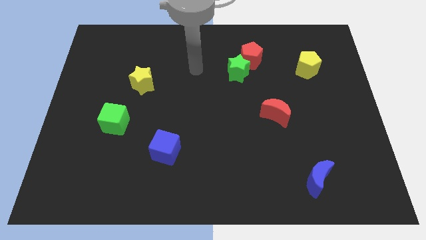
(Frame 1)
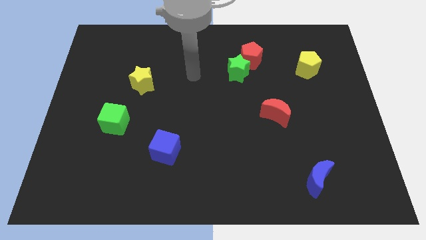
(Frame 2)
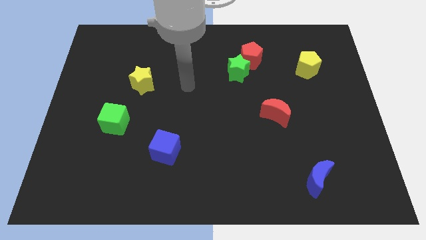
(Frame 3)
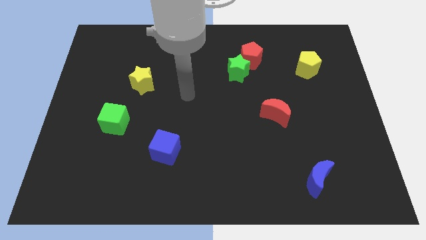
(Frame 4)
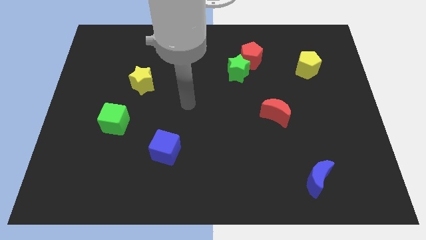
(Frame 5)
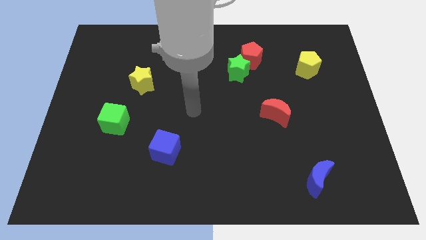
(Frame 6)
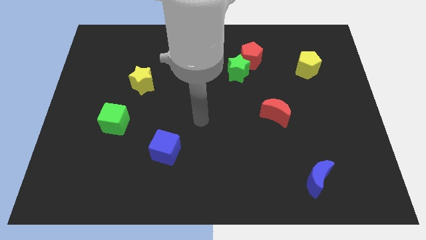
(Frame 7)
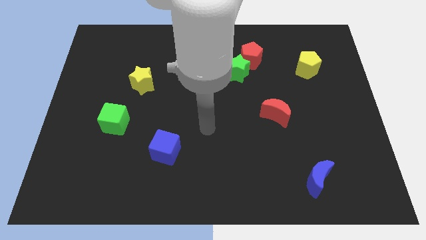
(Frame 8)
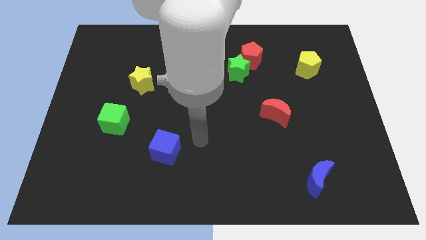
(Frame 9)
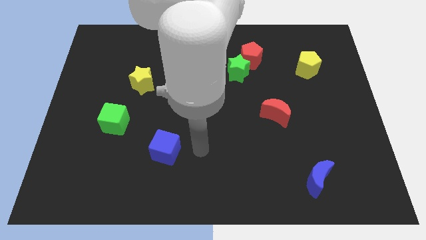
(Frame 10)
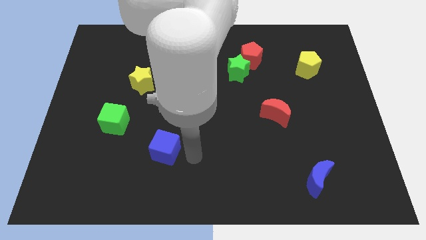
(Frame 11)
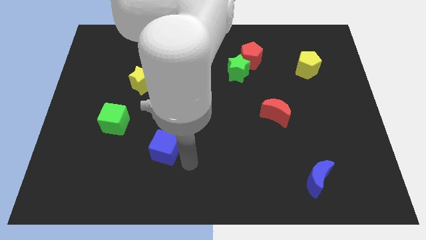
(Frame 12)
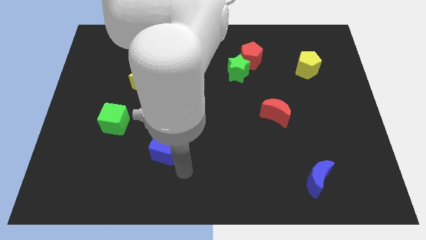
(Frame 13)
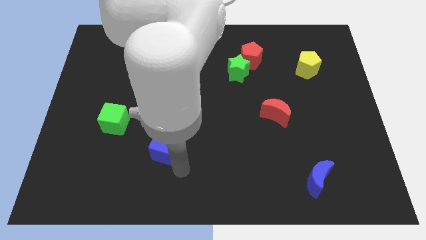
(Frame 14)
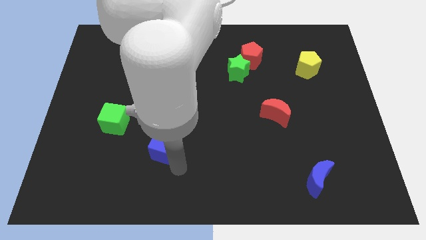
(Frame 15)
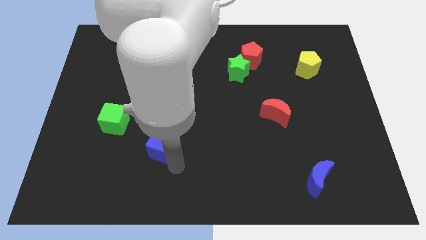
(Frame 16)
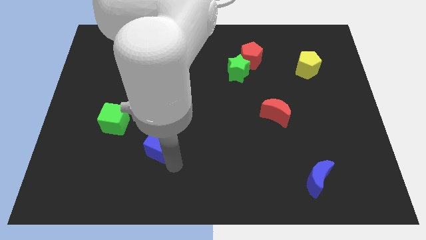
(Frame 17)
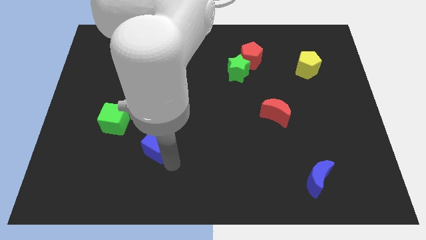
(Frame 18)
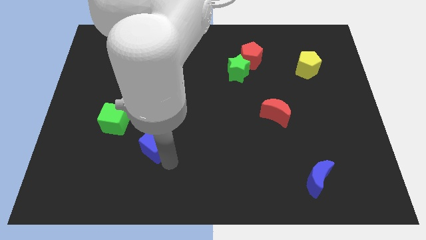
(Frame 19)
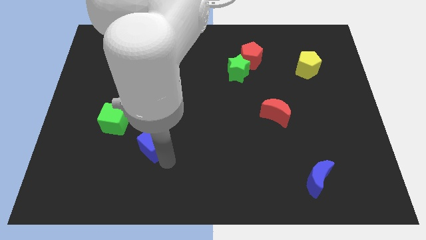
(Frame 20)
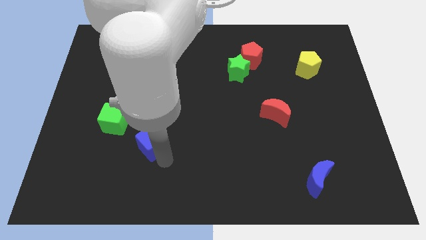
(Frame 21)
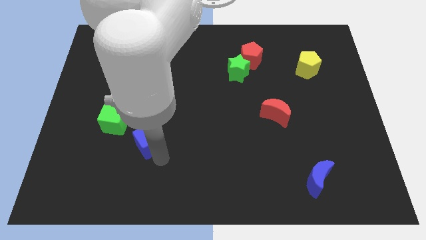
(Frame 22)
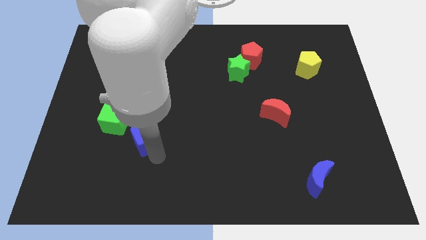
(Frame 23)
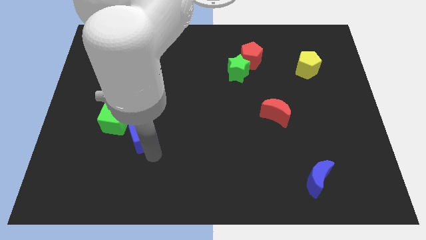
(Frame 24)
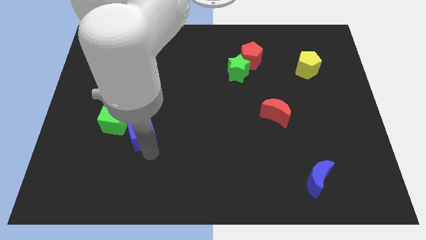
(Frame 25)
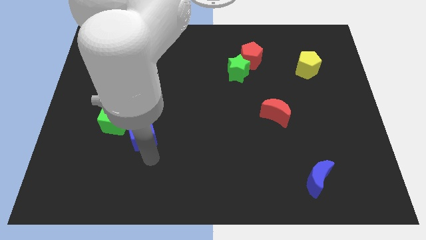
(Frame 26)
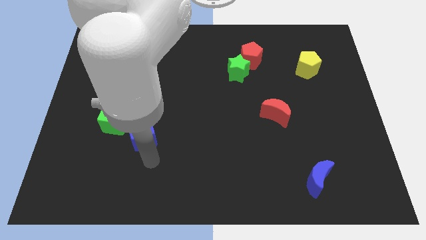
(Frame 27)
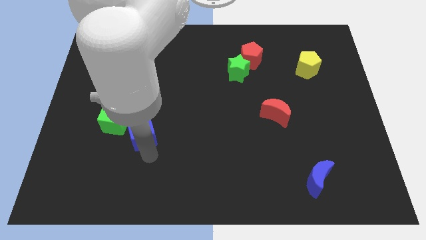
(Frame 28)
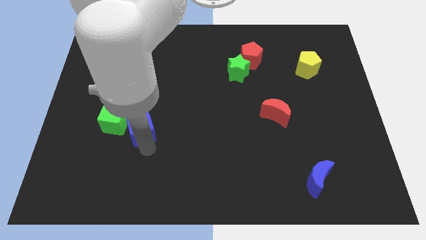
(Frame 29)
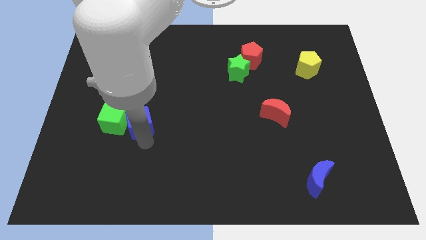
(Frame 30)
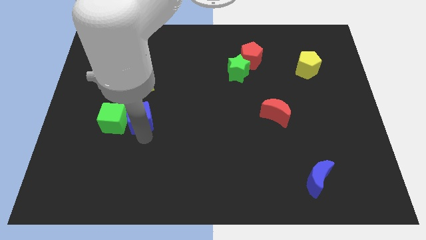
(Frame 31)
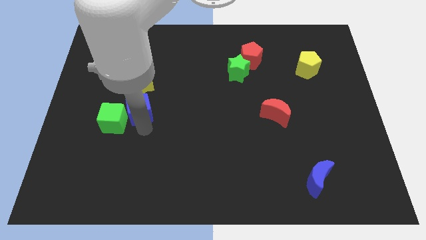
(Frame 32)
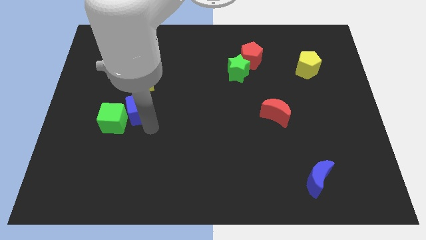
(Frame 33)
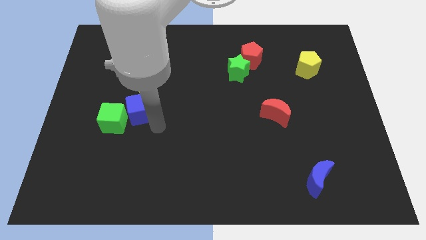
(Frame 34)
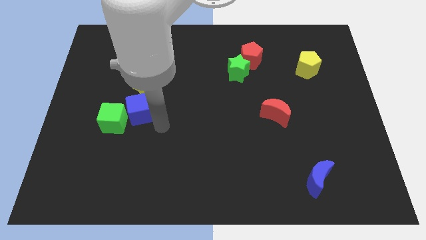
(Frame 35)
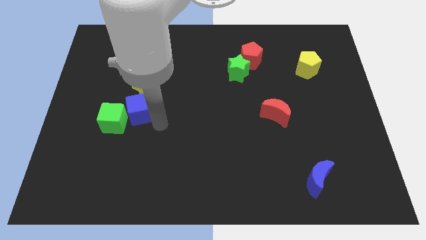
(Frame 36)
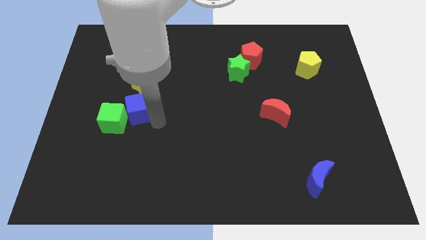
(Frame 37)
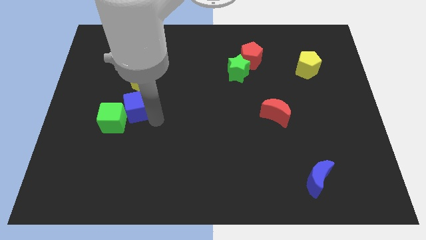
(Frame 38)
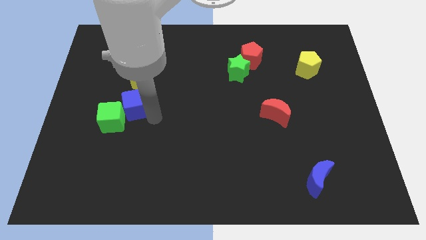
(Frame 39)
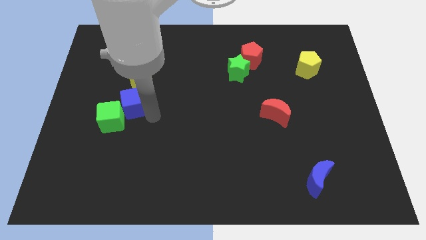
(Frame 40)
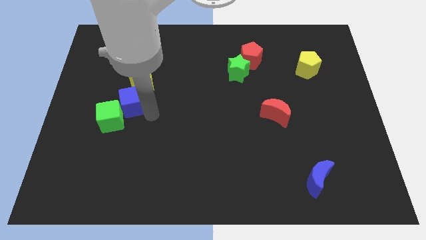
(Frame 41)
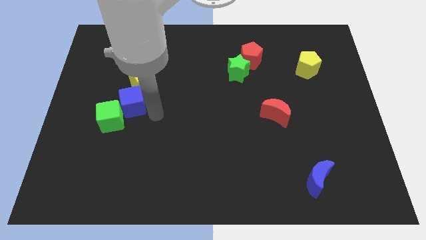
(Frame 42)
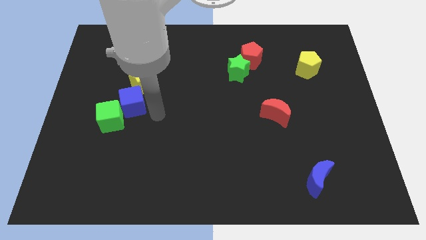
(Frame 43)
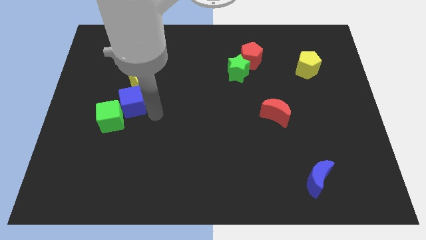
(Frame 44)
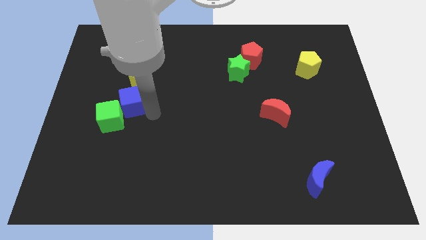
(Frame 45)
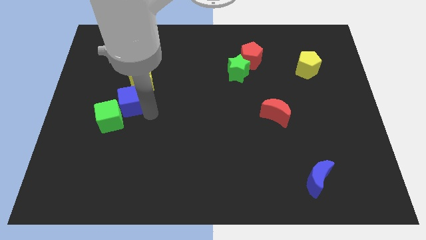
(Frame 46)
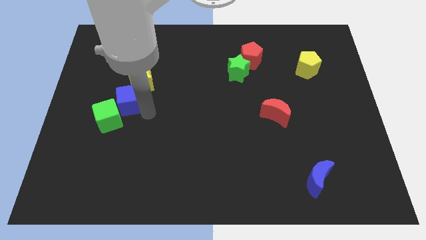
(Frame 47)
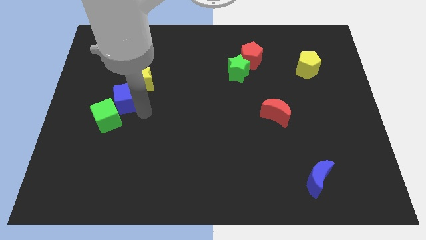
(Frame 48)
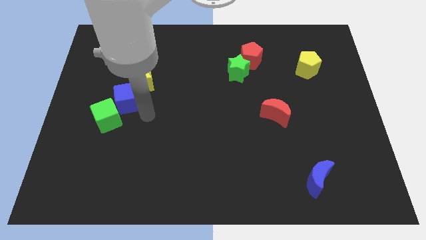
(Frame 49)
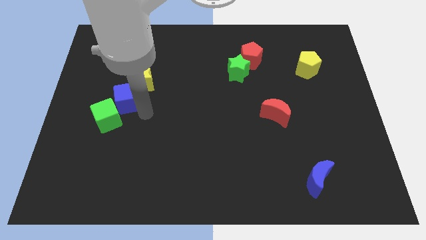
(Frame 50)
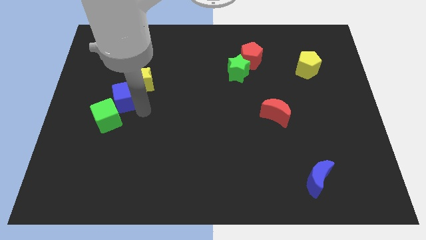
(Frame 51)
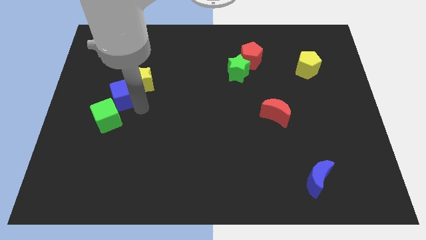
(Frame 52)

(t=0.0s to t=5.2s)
put the blue cube left of the yellow star

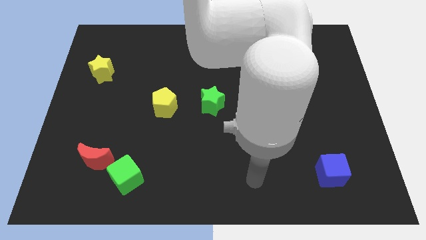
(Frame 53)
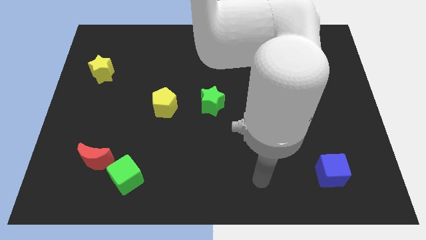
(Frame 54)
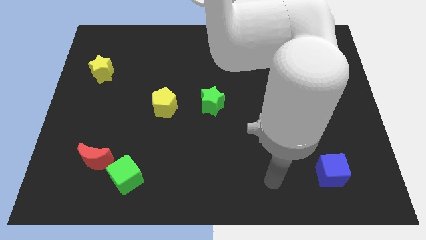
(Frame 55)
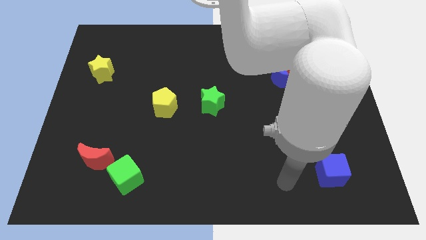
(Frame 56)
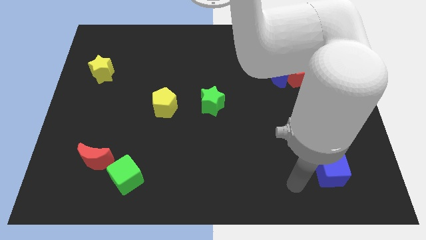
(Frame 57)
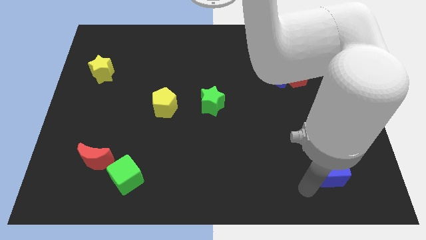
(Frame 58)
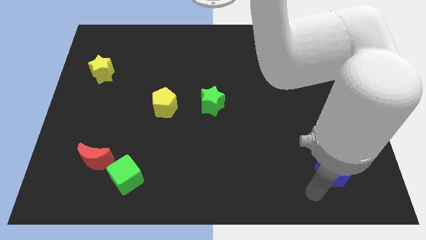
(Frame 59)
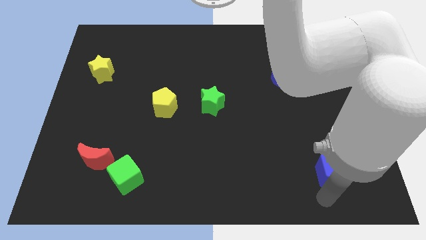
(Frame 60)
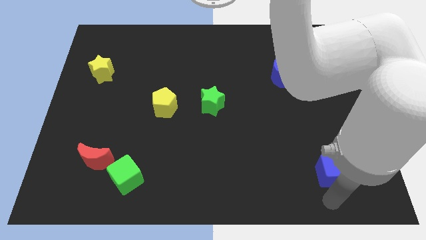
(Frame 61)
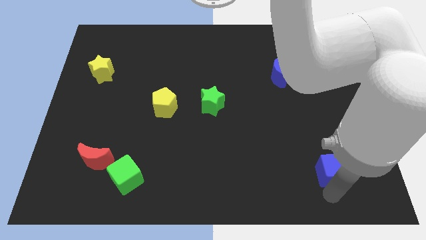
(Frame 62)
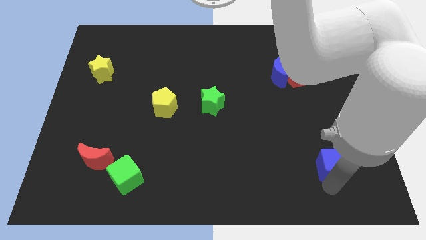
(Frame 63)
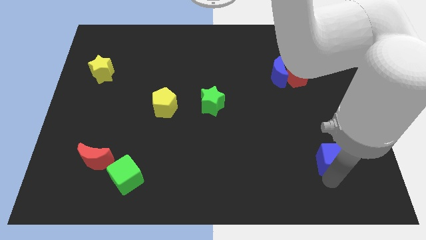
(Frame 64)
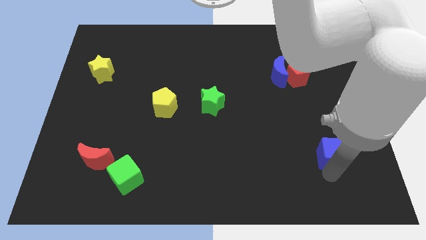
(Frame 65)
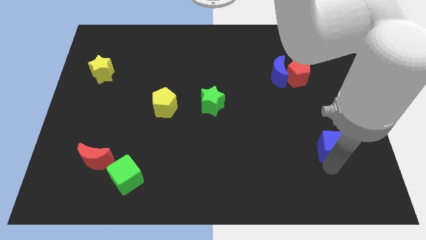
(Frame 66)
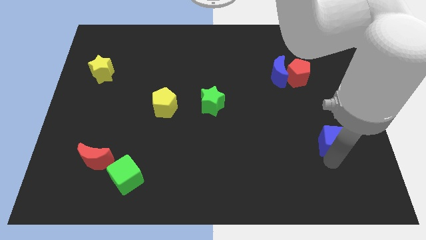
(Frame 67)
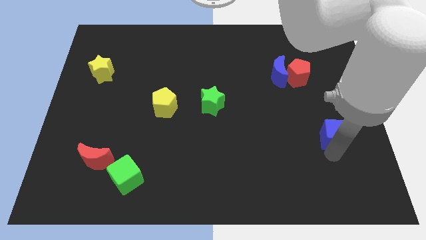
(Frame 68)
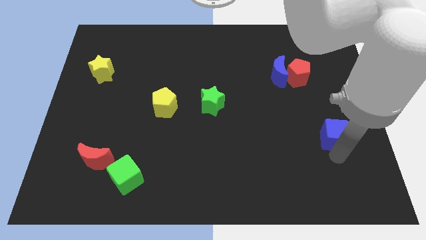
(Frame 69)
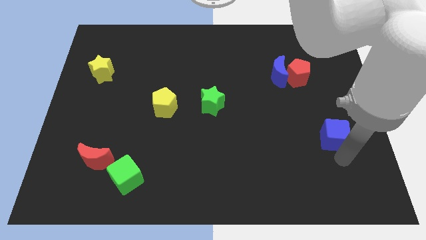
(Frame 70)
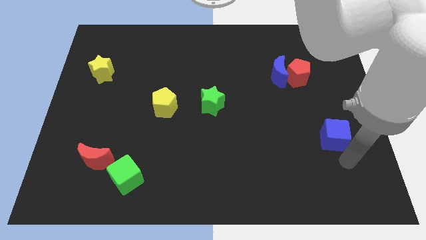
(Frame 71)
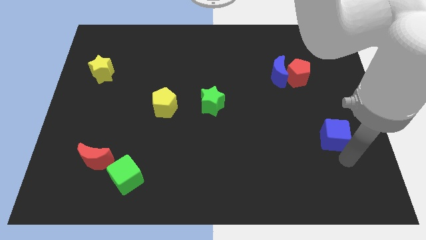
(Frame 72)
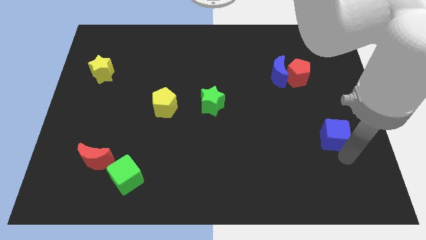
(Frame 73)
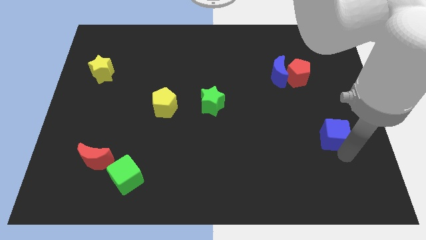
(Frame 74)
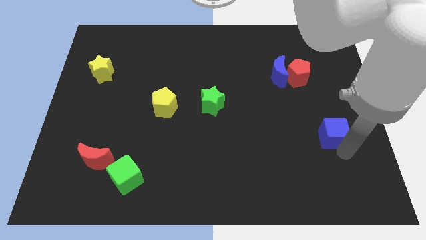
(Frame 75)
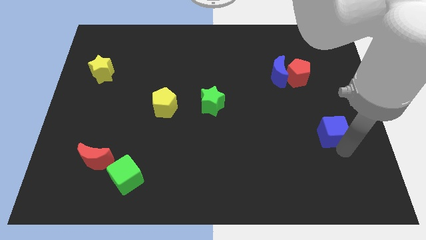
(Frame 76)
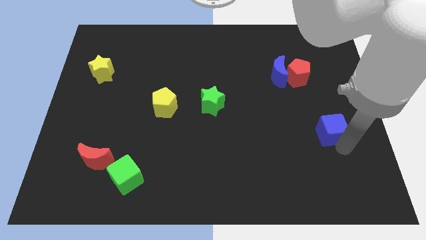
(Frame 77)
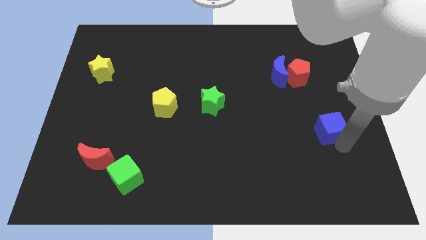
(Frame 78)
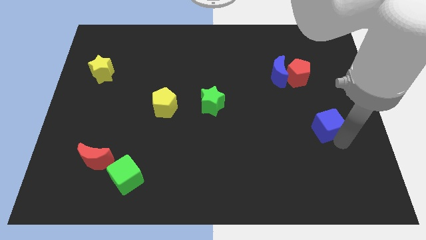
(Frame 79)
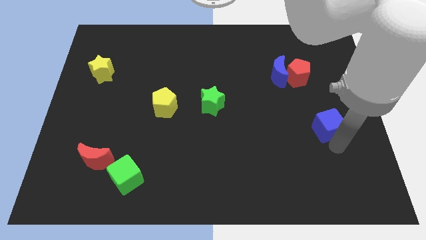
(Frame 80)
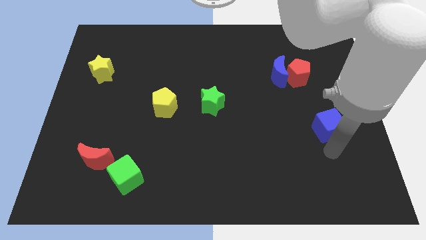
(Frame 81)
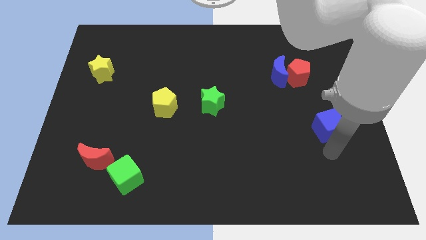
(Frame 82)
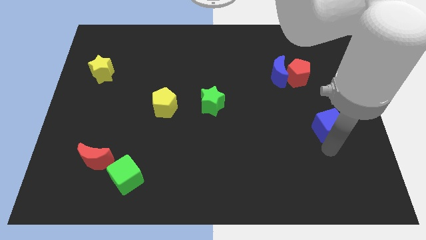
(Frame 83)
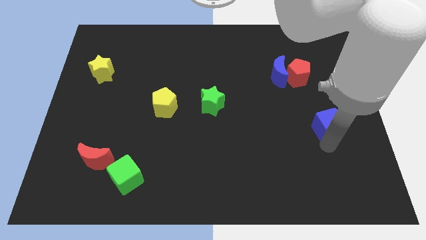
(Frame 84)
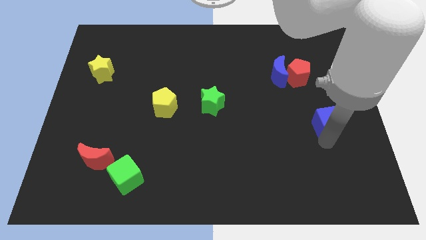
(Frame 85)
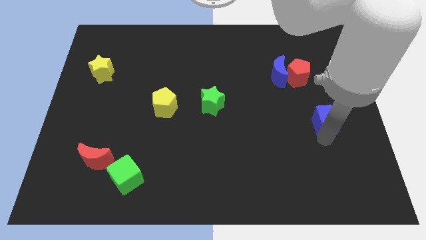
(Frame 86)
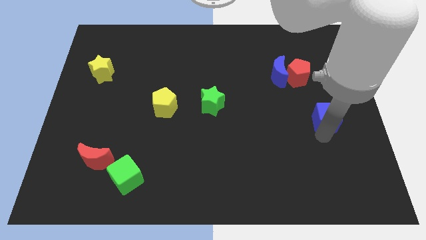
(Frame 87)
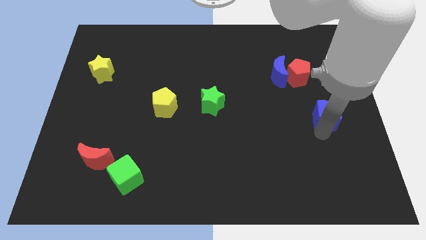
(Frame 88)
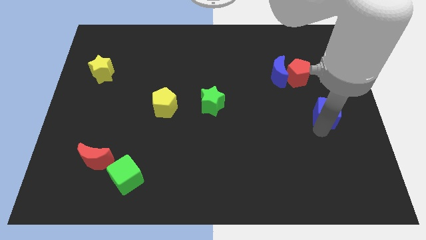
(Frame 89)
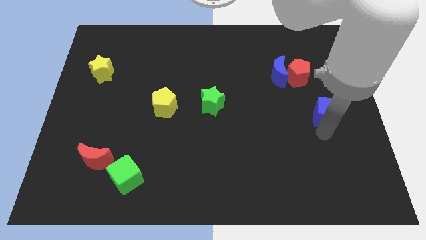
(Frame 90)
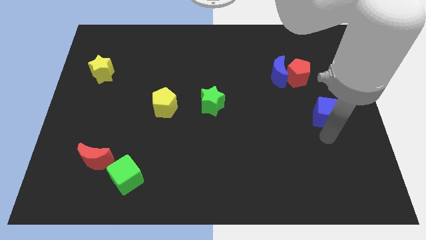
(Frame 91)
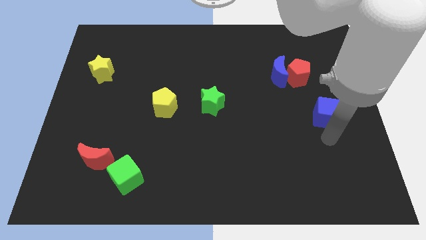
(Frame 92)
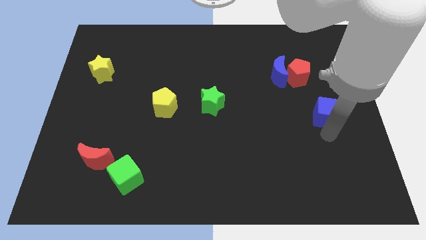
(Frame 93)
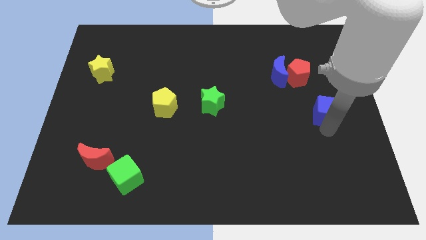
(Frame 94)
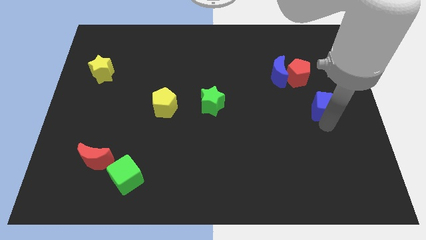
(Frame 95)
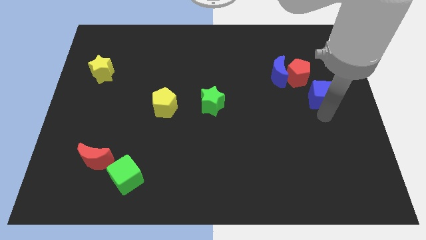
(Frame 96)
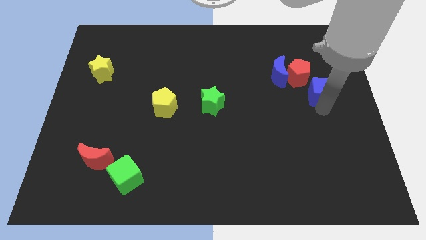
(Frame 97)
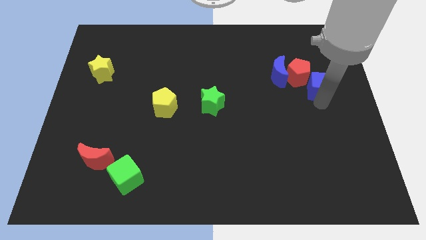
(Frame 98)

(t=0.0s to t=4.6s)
put the blue cube just right of the blue moon
